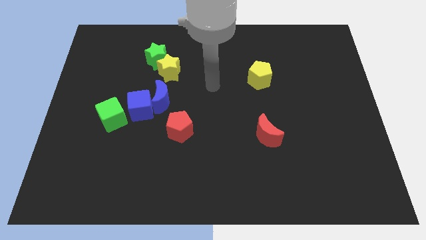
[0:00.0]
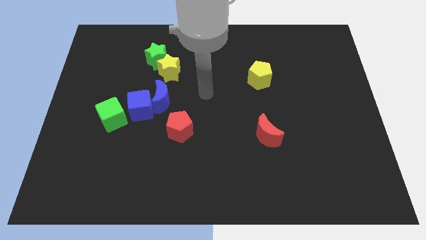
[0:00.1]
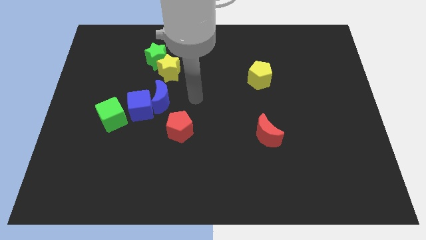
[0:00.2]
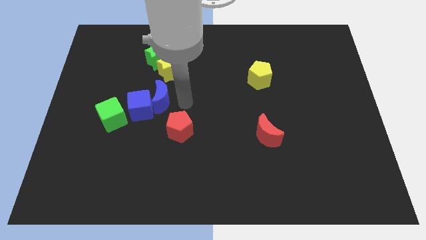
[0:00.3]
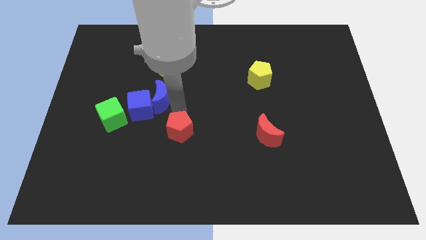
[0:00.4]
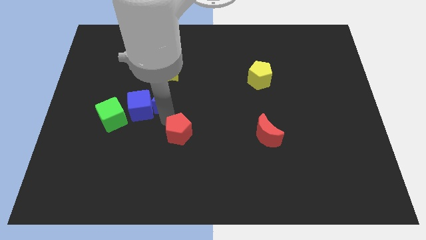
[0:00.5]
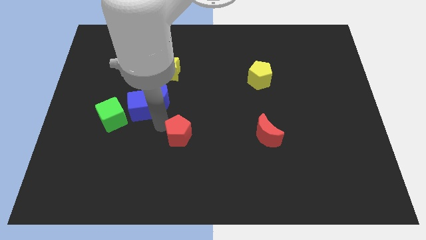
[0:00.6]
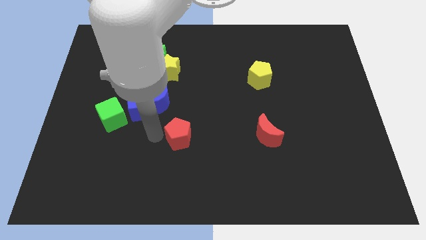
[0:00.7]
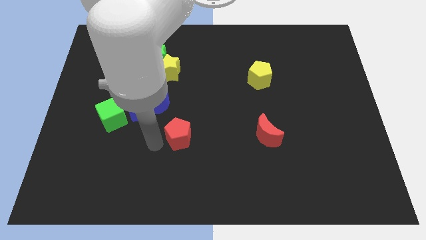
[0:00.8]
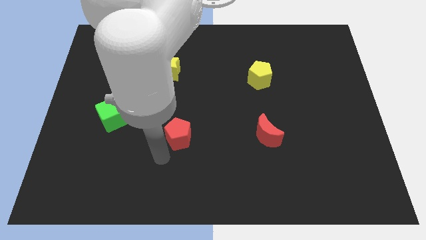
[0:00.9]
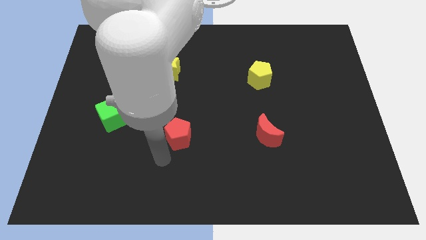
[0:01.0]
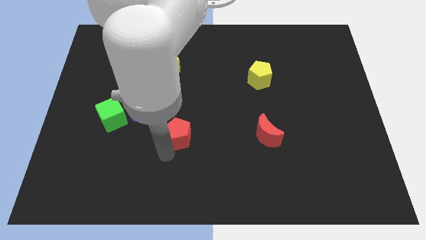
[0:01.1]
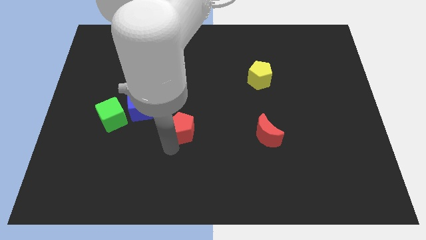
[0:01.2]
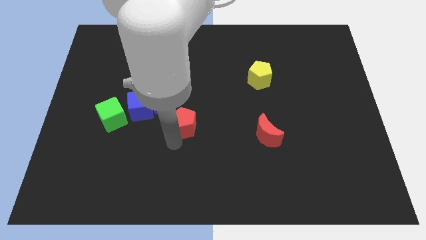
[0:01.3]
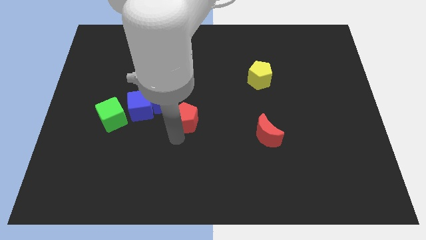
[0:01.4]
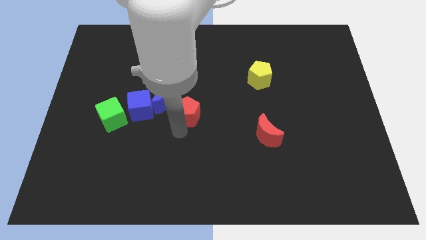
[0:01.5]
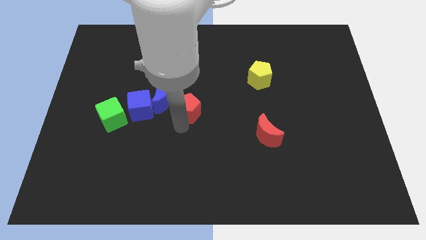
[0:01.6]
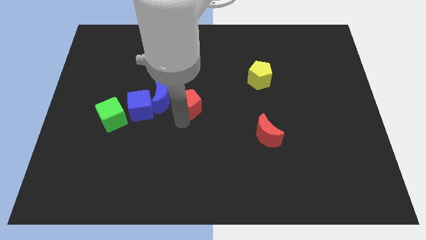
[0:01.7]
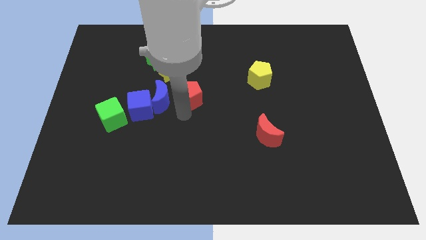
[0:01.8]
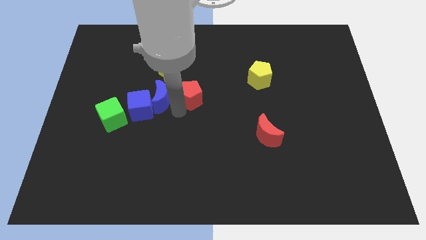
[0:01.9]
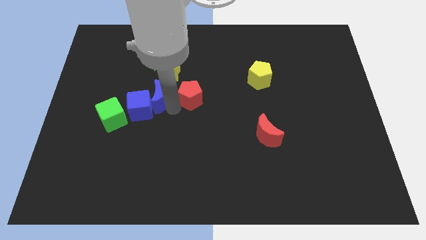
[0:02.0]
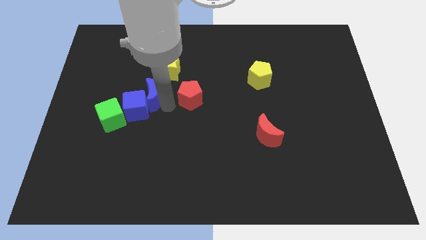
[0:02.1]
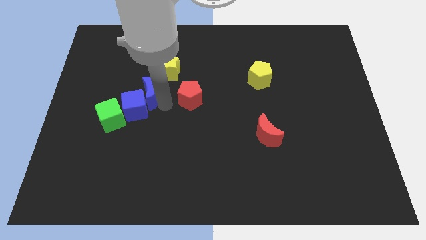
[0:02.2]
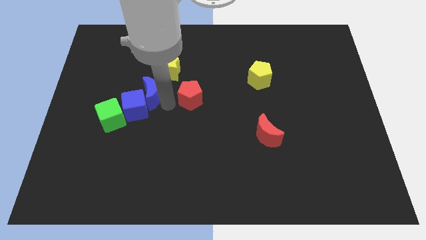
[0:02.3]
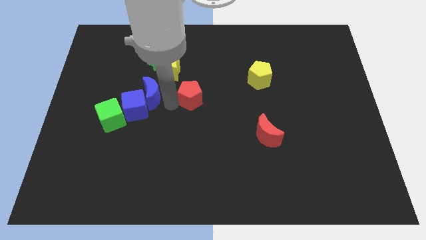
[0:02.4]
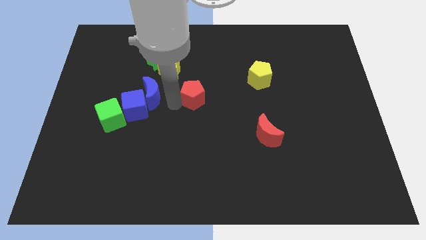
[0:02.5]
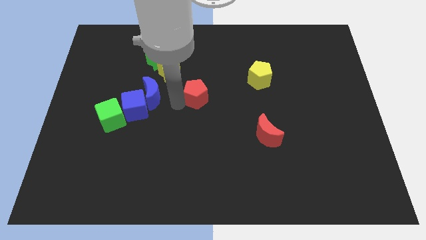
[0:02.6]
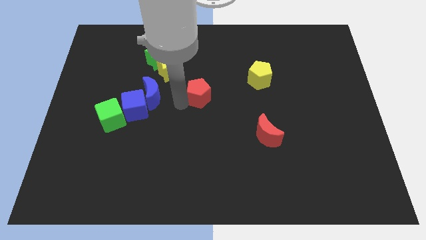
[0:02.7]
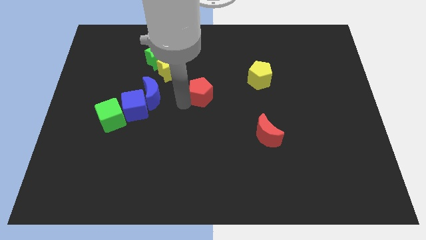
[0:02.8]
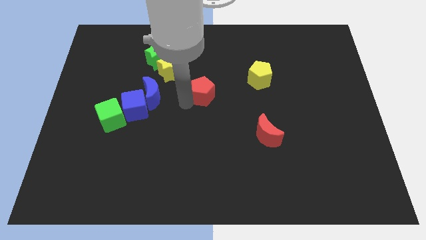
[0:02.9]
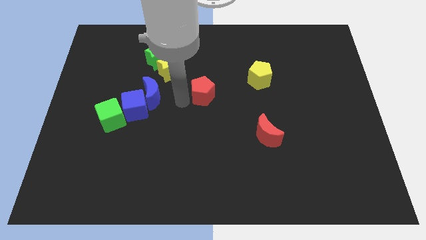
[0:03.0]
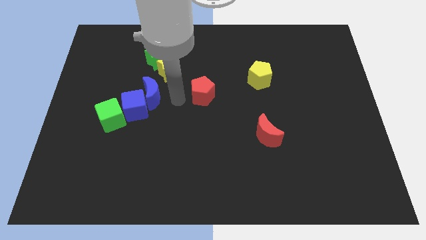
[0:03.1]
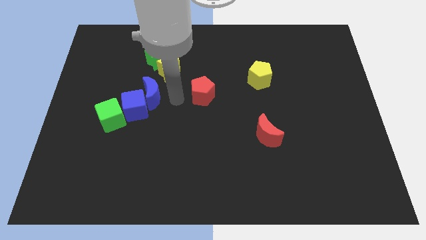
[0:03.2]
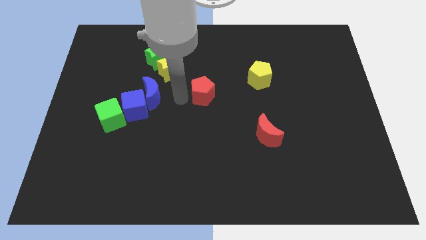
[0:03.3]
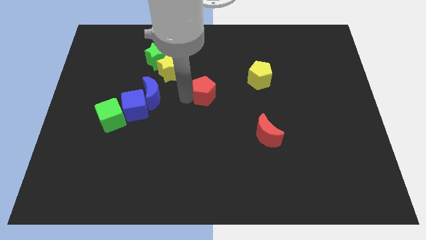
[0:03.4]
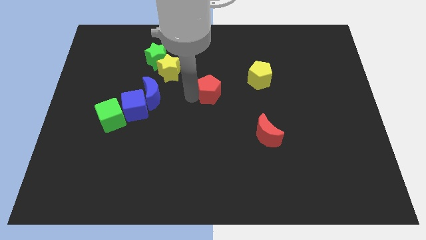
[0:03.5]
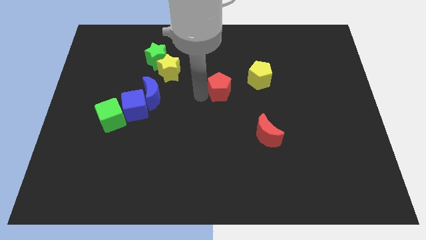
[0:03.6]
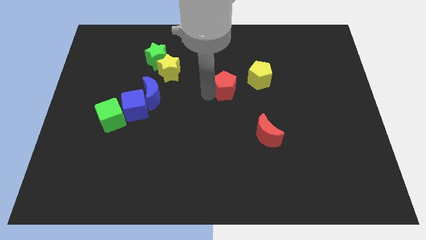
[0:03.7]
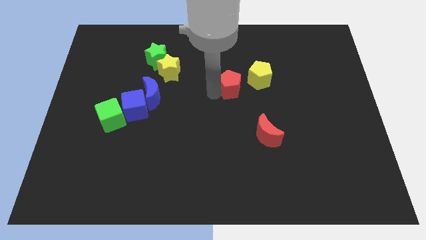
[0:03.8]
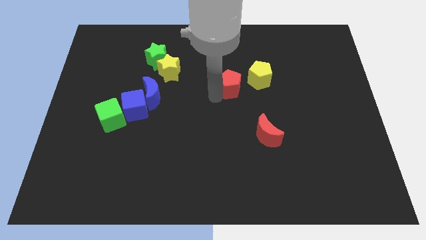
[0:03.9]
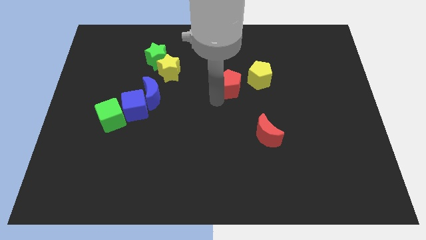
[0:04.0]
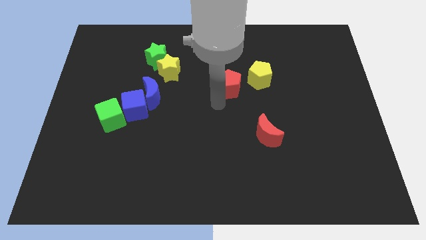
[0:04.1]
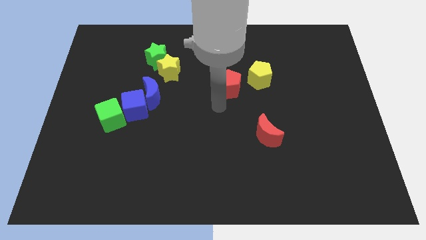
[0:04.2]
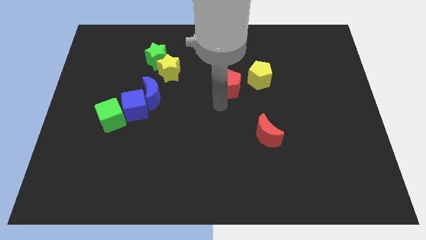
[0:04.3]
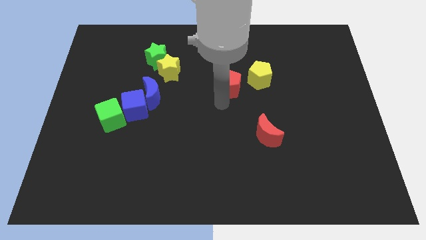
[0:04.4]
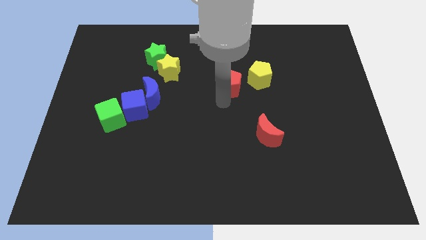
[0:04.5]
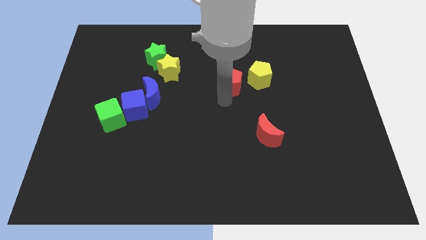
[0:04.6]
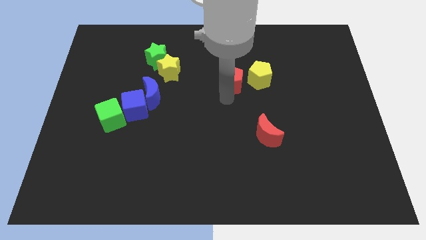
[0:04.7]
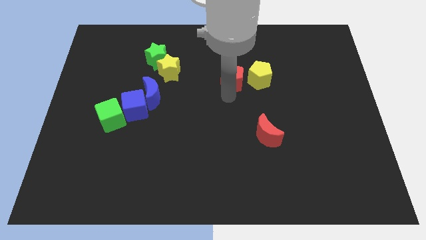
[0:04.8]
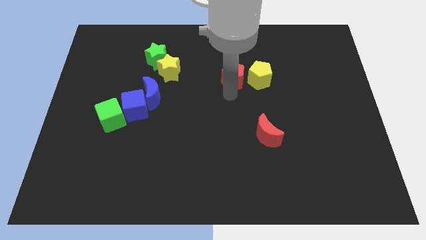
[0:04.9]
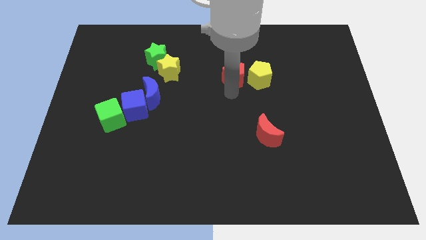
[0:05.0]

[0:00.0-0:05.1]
move the red pentagon diagonally up and right

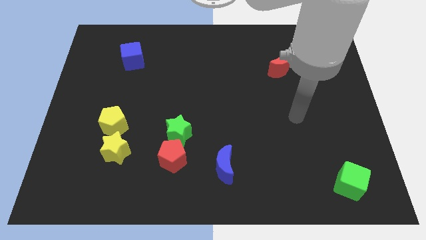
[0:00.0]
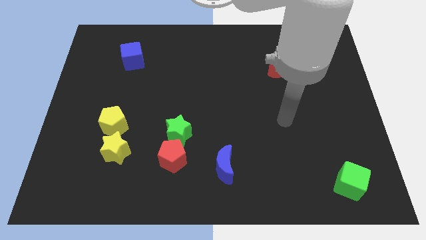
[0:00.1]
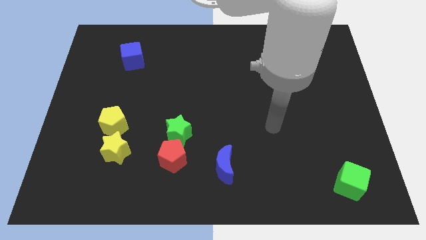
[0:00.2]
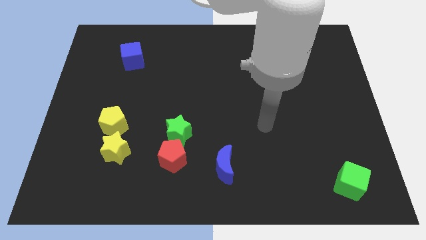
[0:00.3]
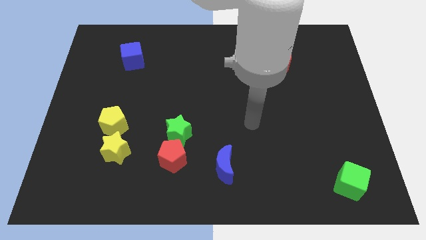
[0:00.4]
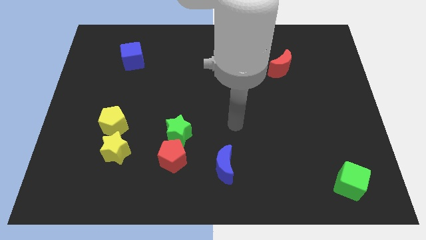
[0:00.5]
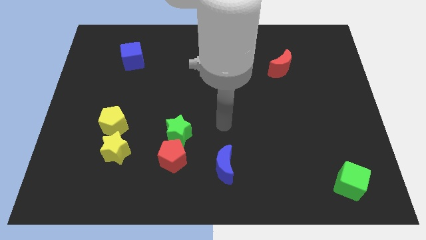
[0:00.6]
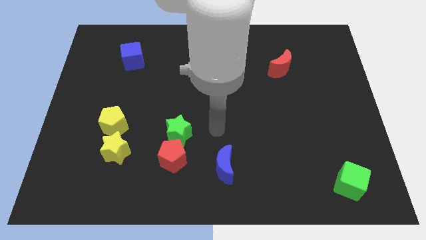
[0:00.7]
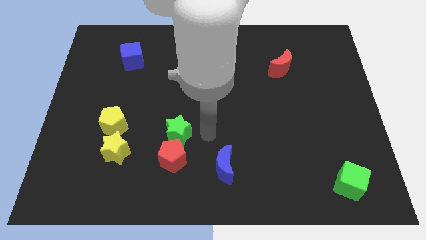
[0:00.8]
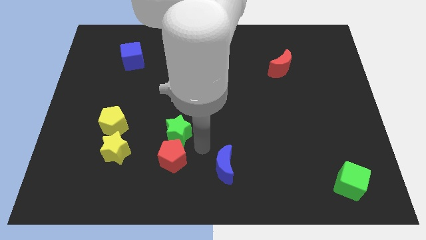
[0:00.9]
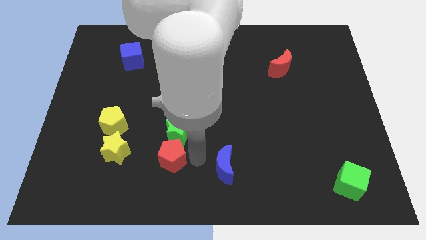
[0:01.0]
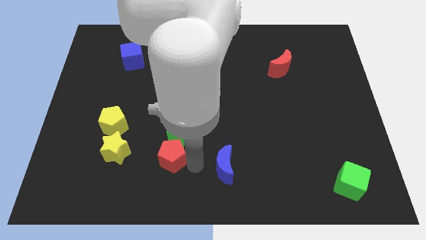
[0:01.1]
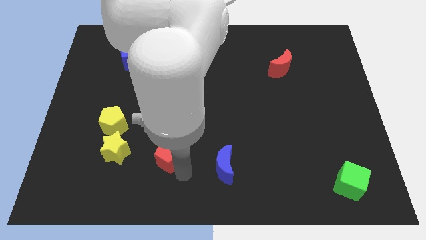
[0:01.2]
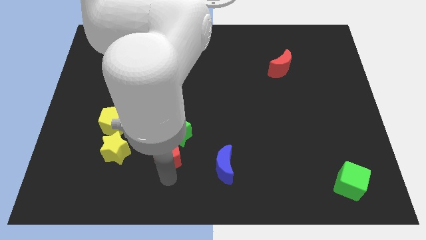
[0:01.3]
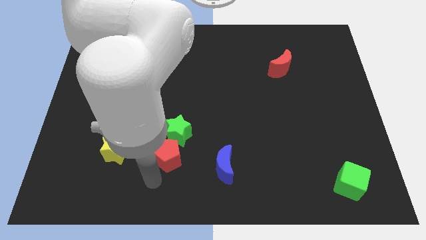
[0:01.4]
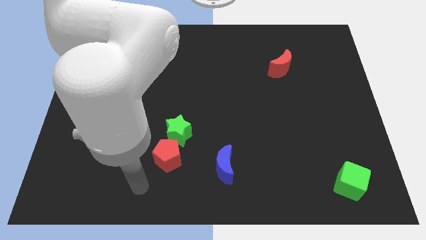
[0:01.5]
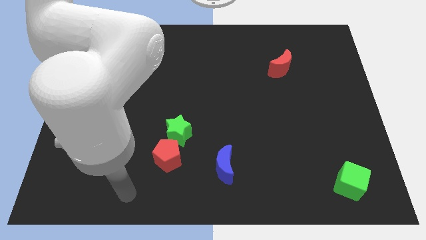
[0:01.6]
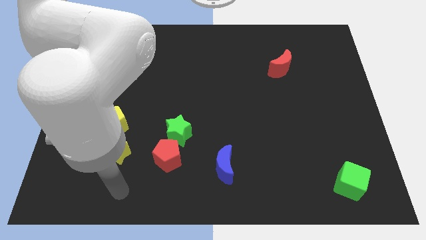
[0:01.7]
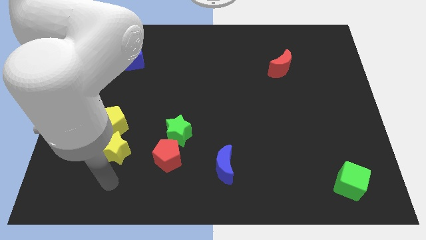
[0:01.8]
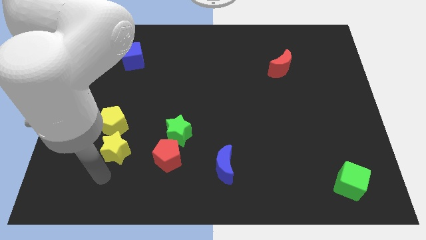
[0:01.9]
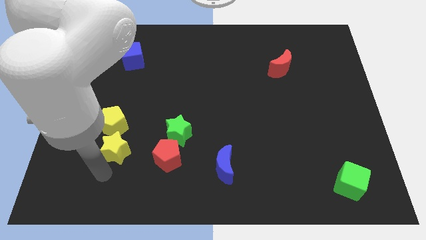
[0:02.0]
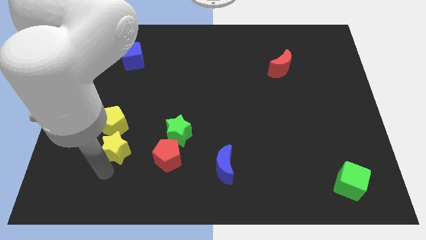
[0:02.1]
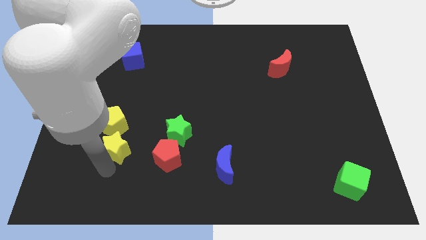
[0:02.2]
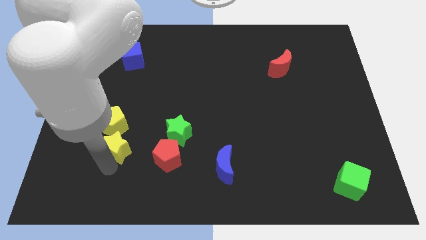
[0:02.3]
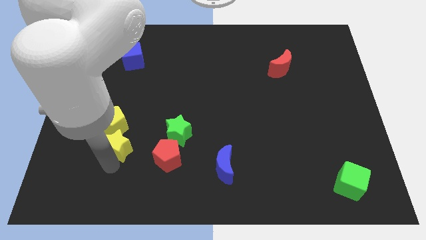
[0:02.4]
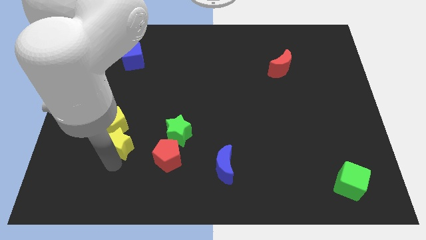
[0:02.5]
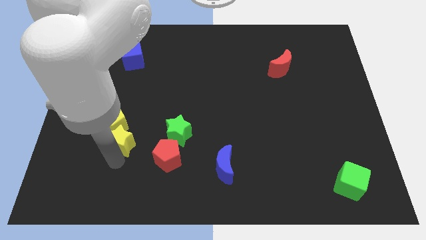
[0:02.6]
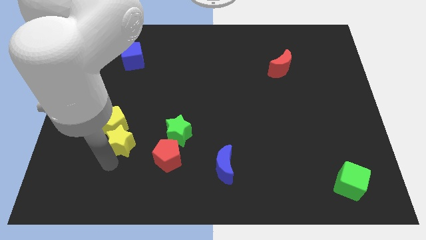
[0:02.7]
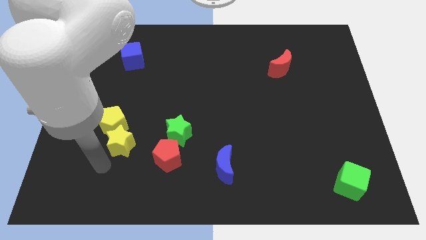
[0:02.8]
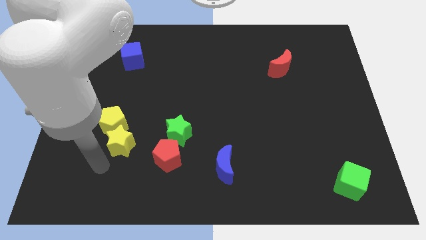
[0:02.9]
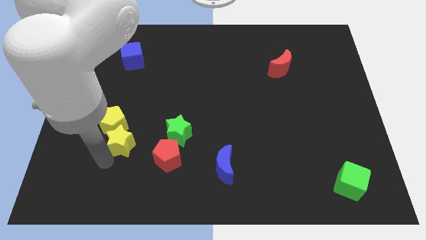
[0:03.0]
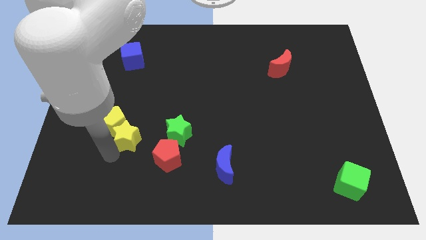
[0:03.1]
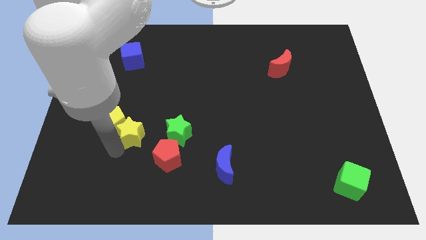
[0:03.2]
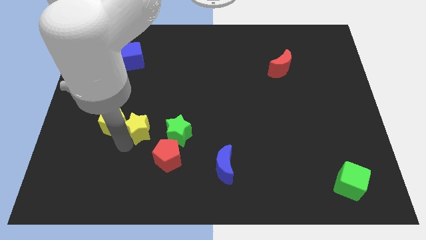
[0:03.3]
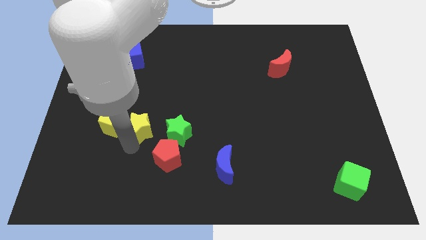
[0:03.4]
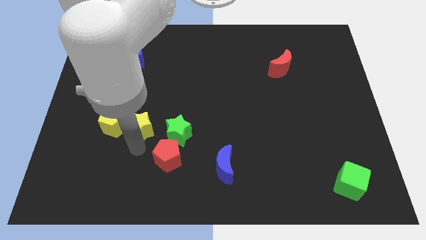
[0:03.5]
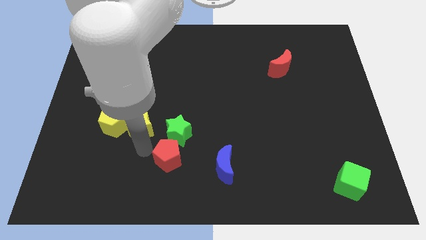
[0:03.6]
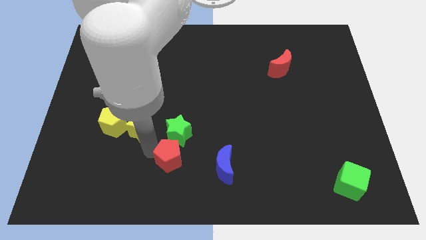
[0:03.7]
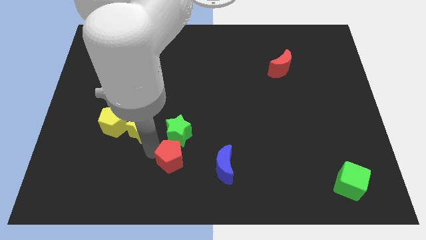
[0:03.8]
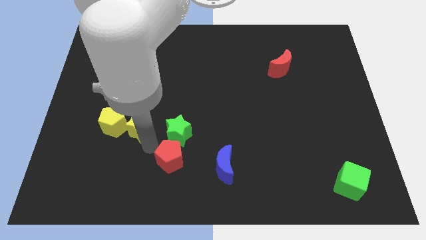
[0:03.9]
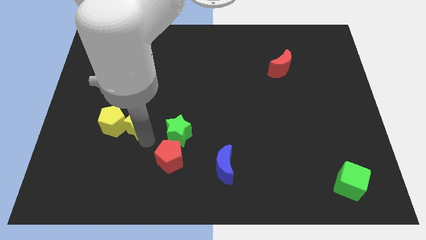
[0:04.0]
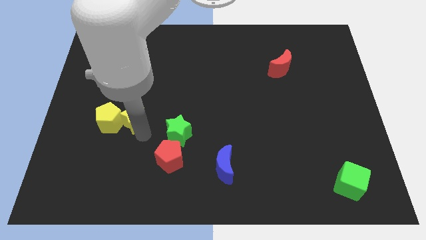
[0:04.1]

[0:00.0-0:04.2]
move the yellow star upwards slightly
